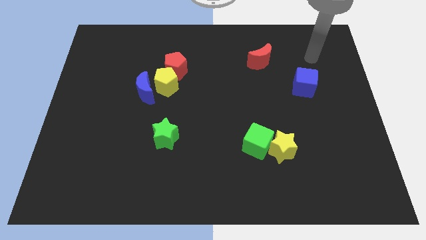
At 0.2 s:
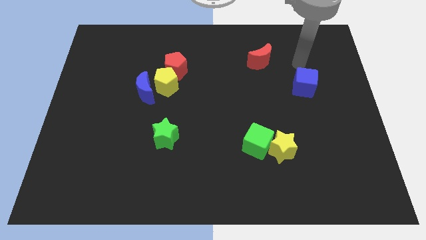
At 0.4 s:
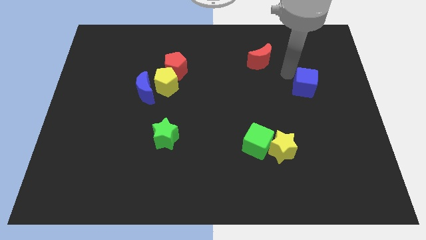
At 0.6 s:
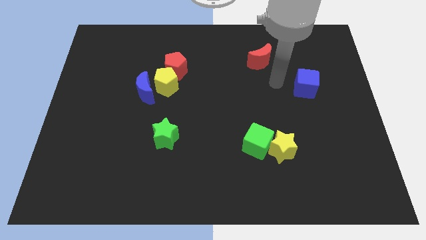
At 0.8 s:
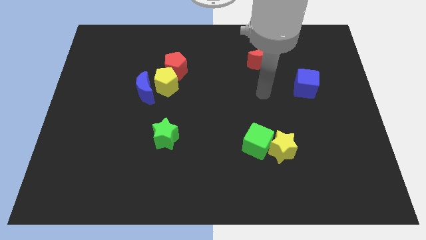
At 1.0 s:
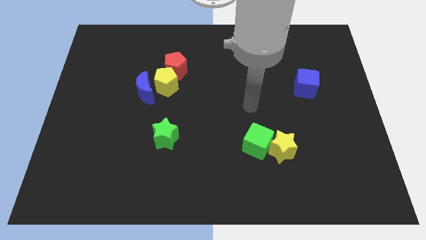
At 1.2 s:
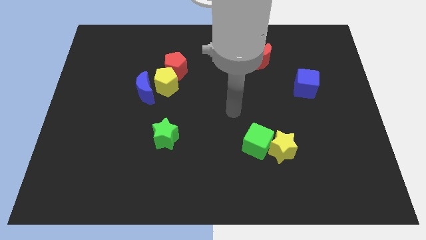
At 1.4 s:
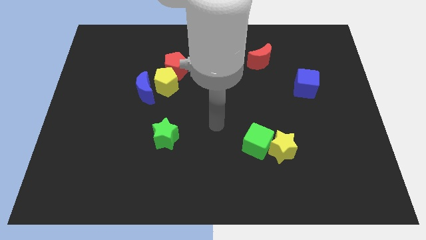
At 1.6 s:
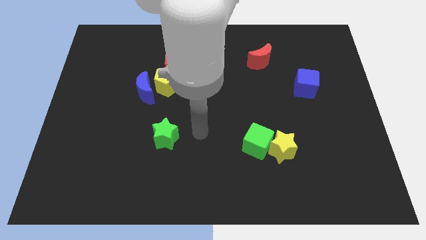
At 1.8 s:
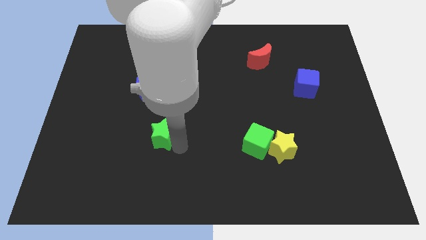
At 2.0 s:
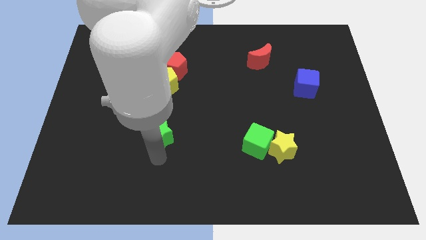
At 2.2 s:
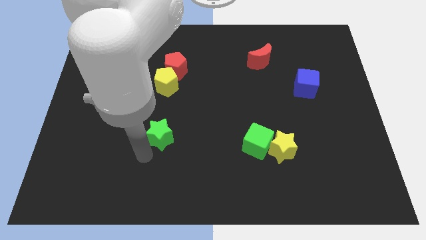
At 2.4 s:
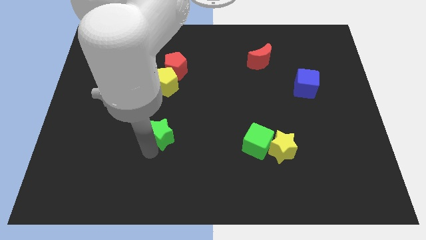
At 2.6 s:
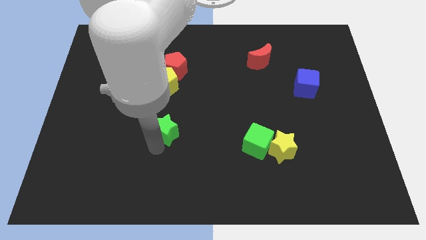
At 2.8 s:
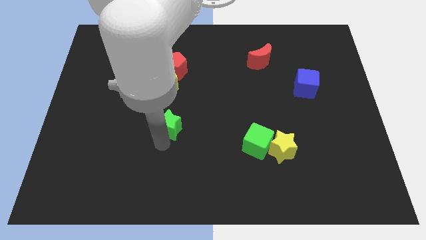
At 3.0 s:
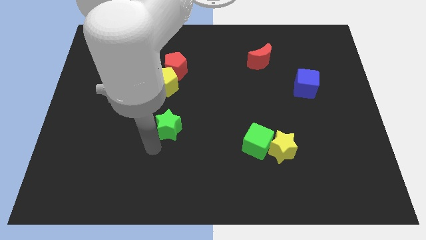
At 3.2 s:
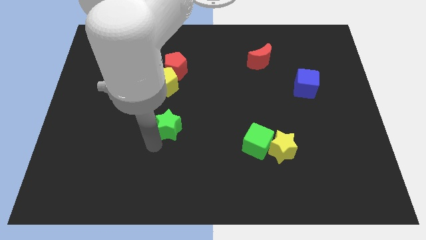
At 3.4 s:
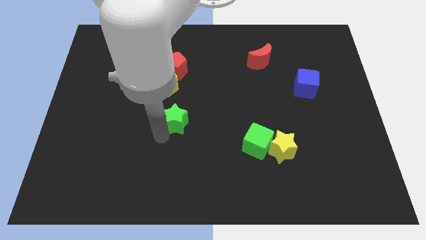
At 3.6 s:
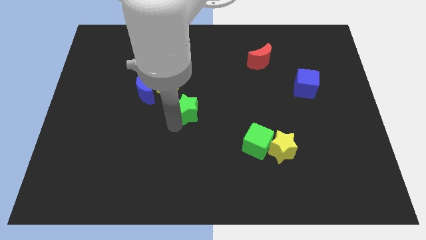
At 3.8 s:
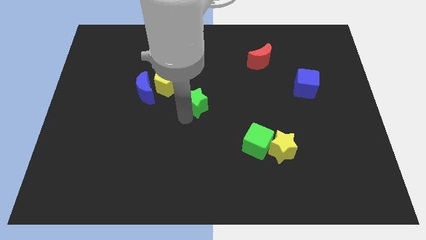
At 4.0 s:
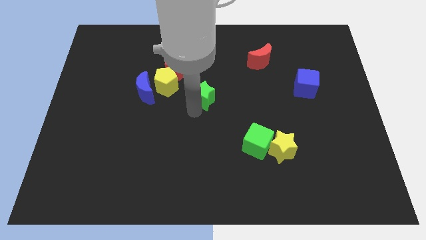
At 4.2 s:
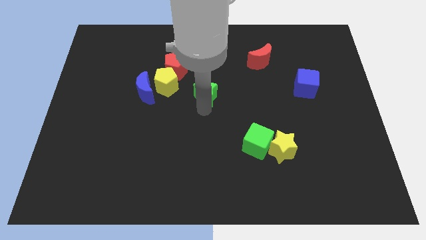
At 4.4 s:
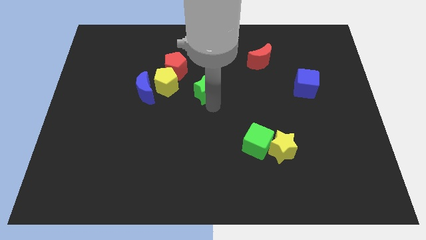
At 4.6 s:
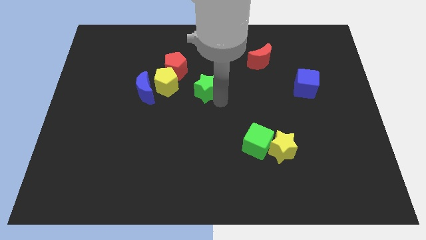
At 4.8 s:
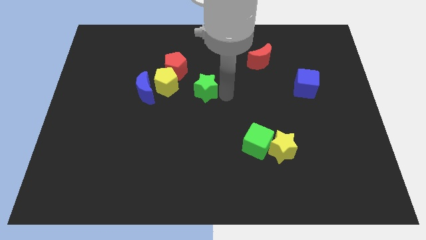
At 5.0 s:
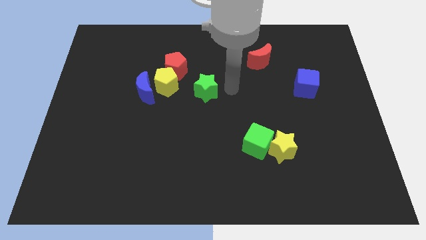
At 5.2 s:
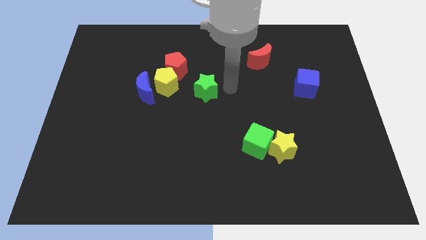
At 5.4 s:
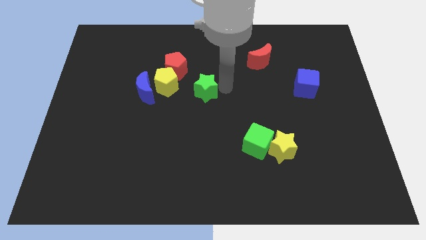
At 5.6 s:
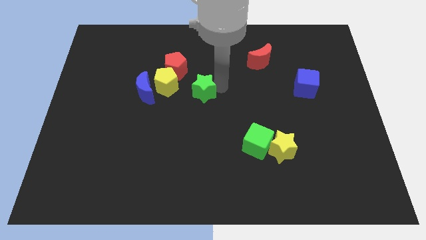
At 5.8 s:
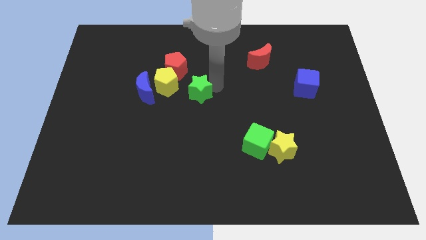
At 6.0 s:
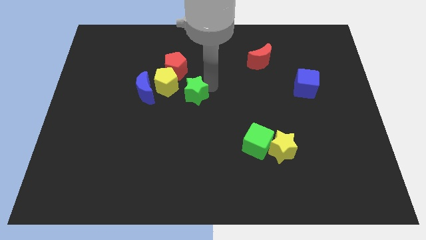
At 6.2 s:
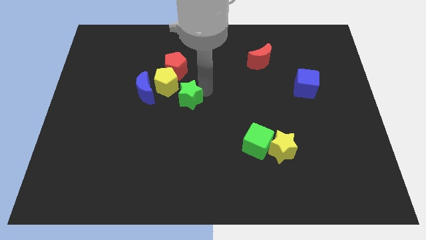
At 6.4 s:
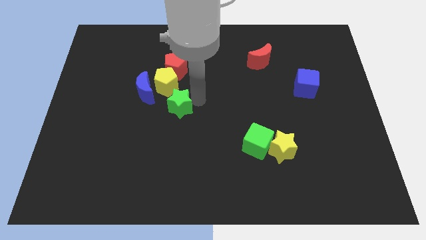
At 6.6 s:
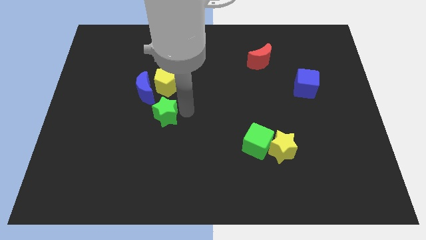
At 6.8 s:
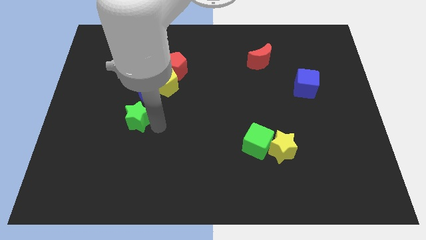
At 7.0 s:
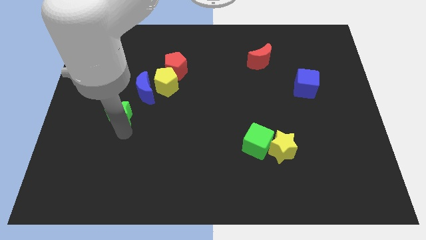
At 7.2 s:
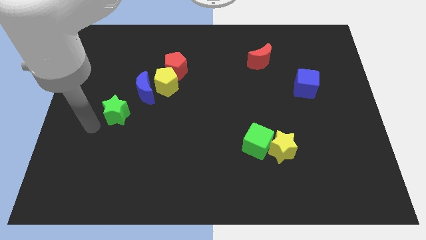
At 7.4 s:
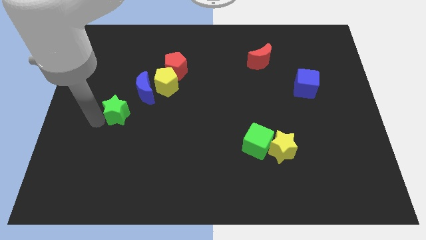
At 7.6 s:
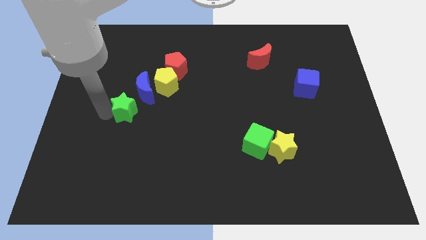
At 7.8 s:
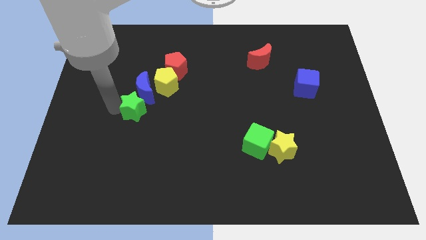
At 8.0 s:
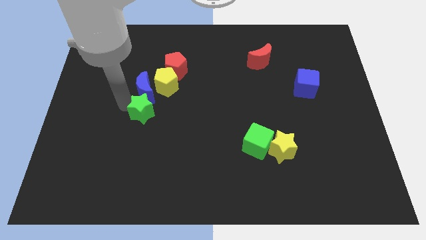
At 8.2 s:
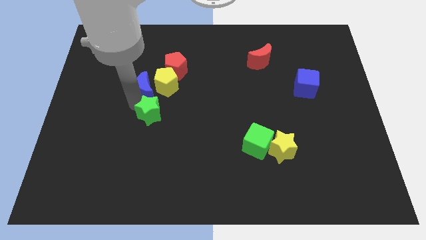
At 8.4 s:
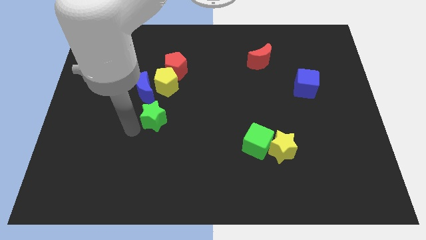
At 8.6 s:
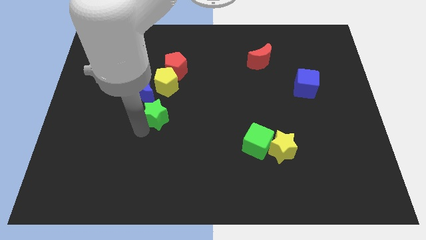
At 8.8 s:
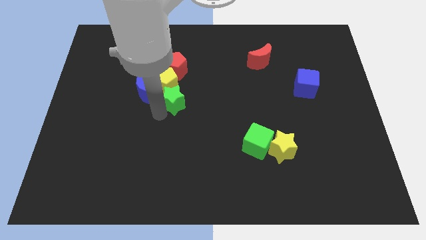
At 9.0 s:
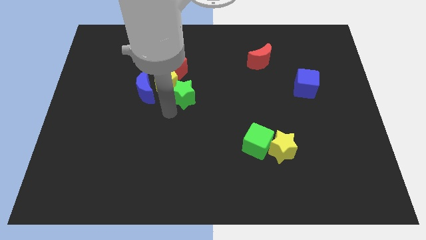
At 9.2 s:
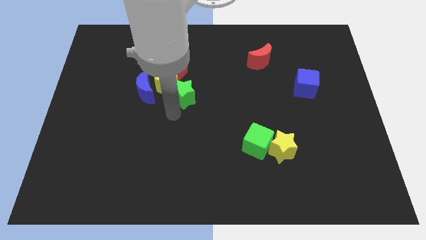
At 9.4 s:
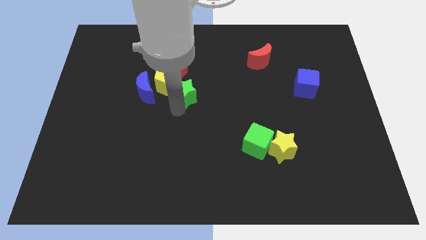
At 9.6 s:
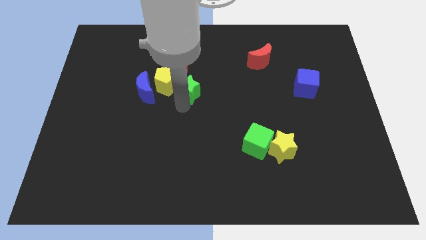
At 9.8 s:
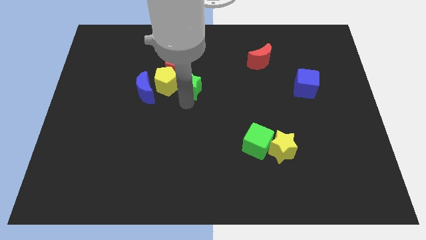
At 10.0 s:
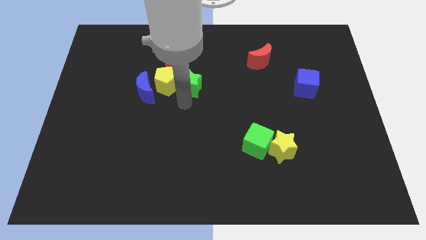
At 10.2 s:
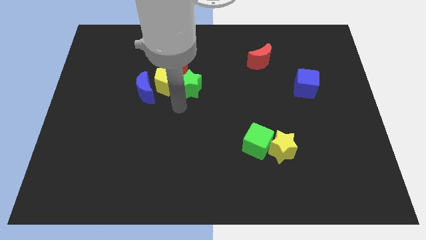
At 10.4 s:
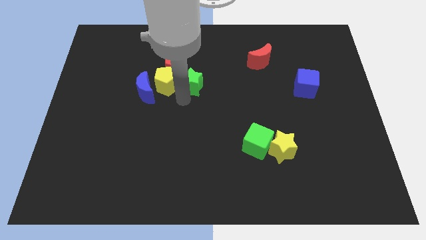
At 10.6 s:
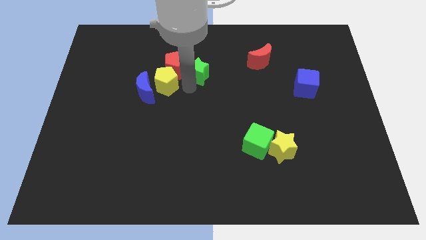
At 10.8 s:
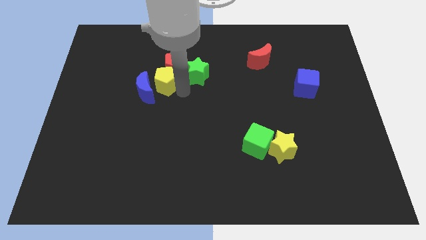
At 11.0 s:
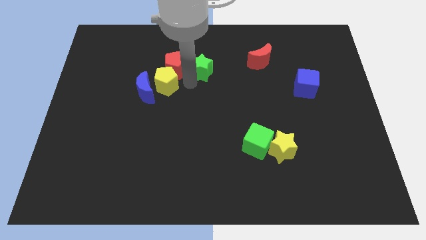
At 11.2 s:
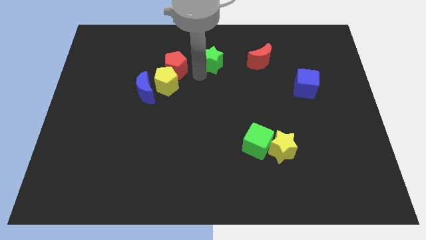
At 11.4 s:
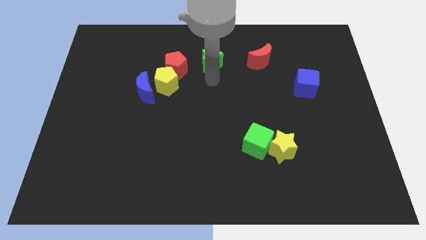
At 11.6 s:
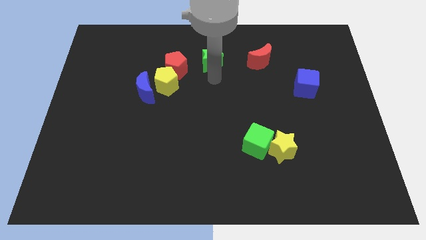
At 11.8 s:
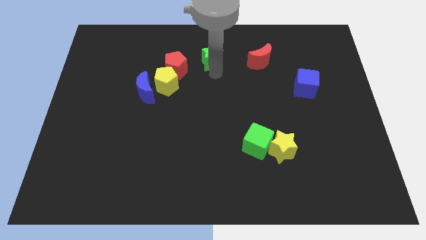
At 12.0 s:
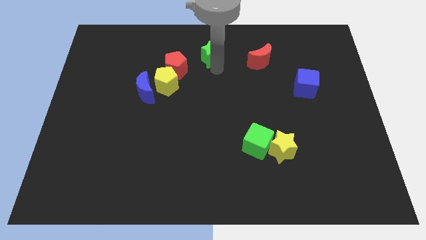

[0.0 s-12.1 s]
slide the green star to the top

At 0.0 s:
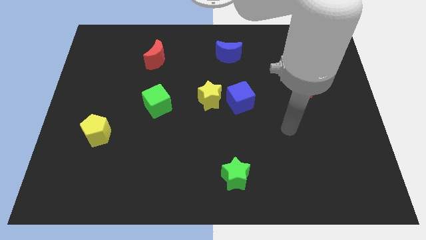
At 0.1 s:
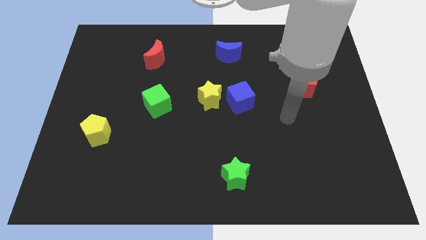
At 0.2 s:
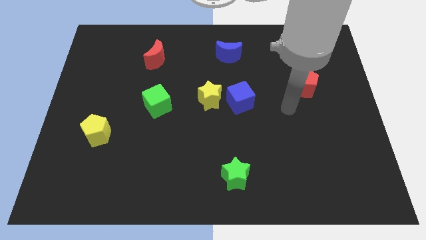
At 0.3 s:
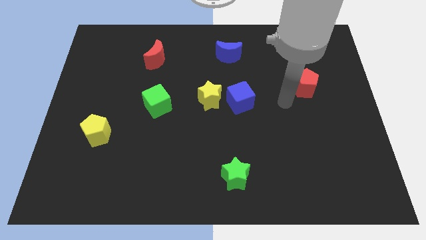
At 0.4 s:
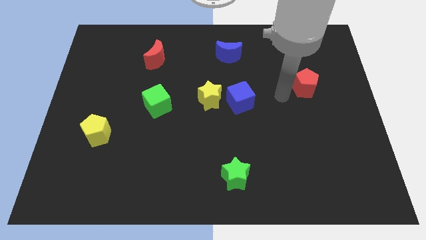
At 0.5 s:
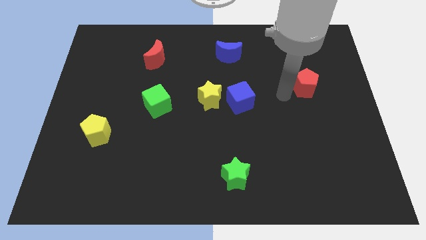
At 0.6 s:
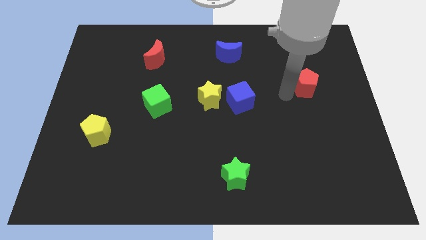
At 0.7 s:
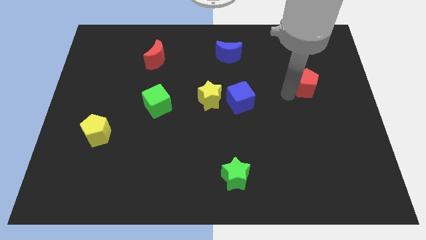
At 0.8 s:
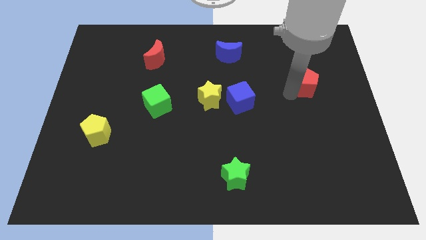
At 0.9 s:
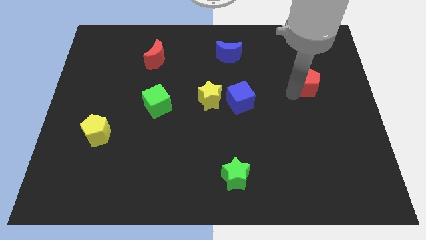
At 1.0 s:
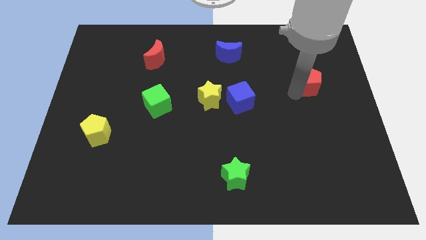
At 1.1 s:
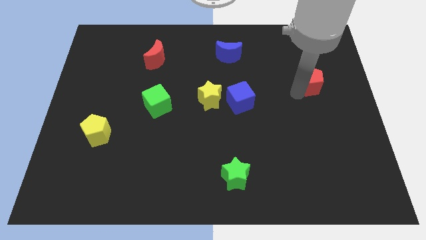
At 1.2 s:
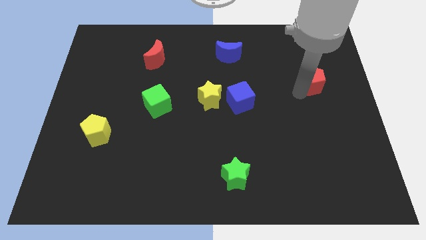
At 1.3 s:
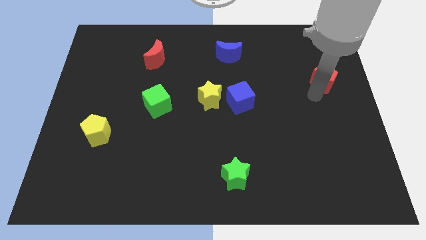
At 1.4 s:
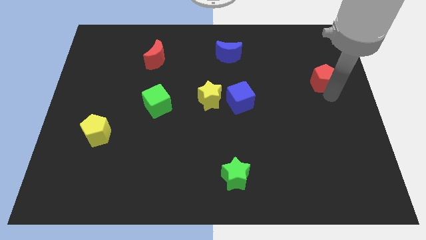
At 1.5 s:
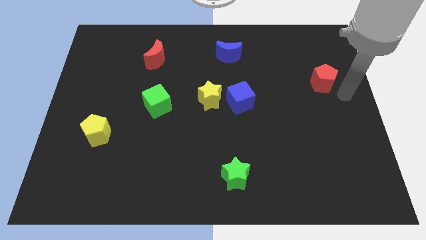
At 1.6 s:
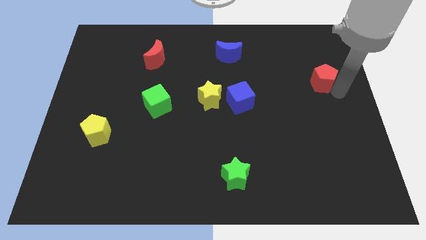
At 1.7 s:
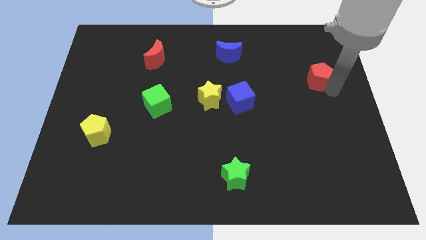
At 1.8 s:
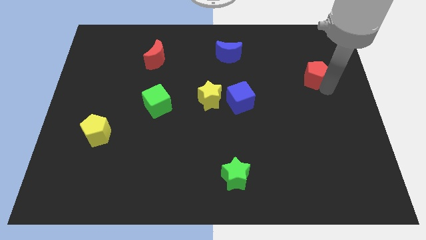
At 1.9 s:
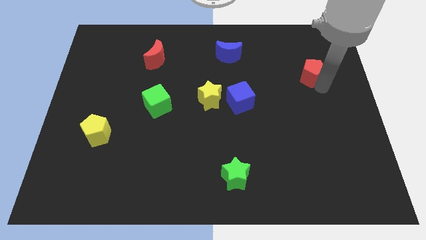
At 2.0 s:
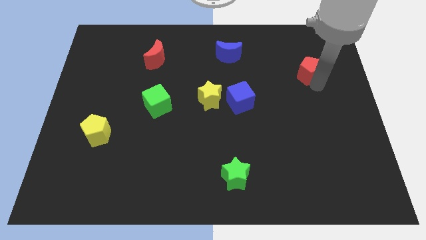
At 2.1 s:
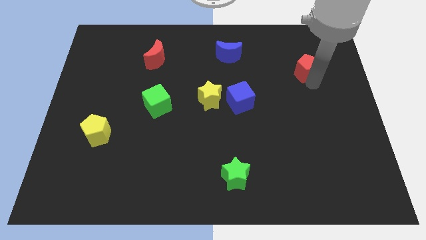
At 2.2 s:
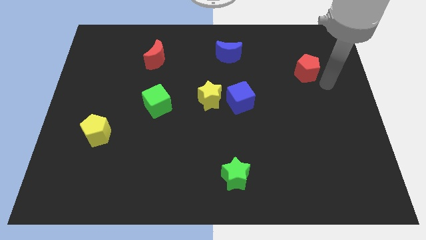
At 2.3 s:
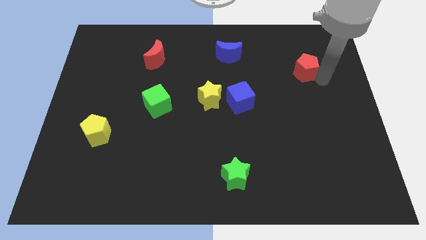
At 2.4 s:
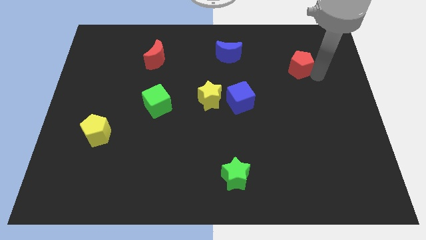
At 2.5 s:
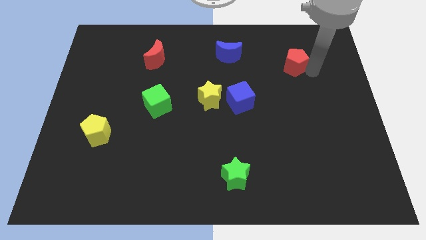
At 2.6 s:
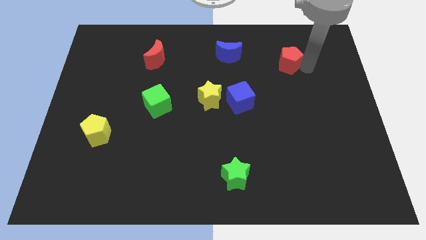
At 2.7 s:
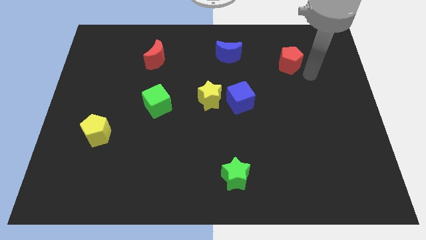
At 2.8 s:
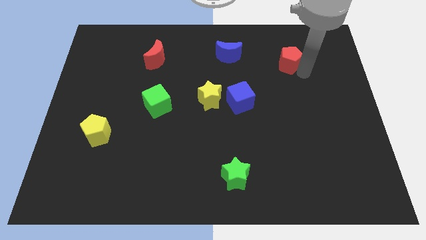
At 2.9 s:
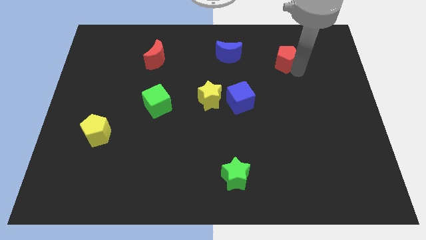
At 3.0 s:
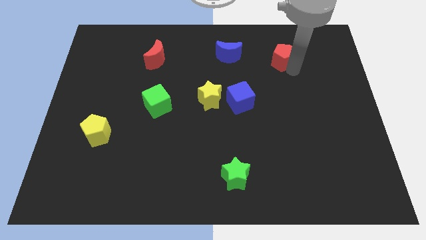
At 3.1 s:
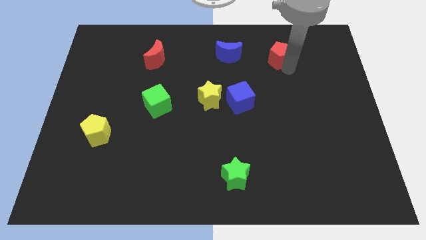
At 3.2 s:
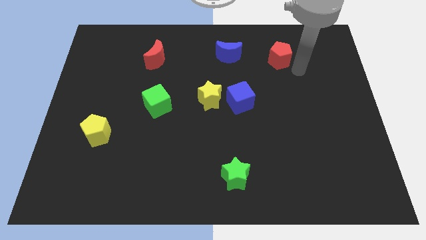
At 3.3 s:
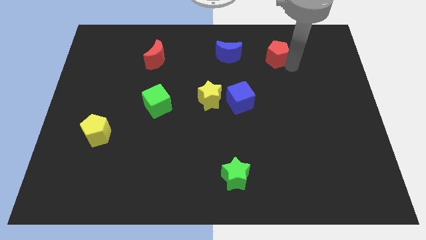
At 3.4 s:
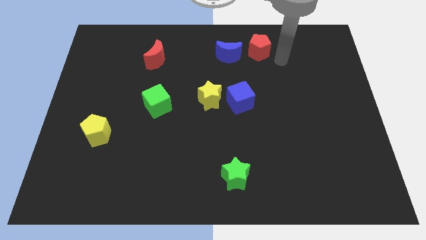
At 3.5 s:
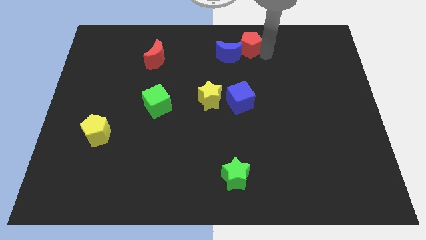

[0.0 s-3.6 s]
slide the red pentagon to the top side
